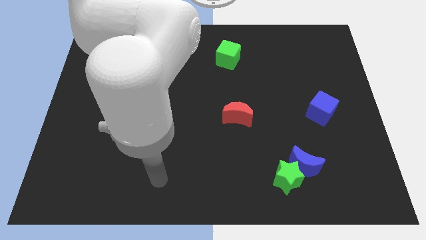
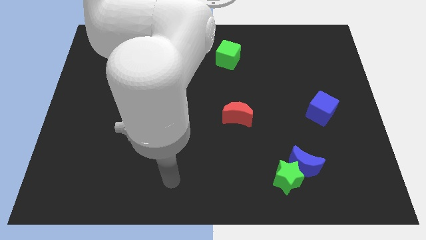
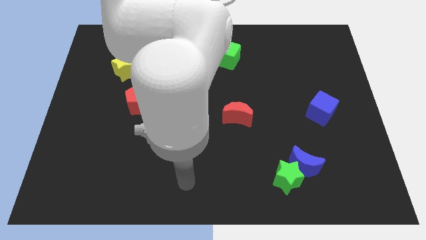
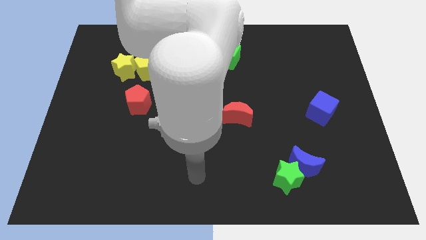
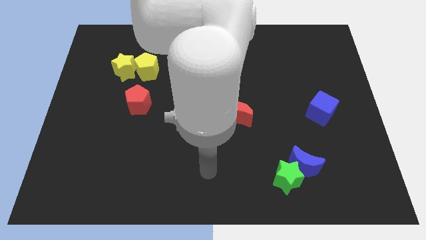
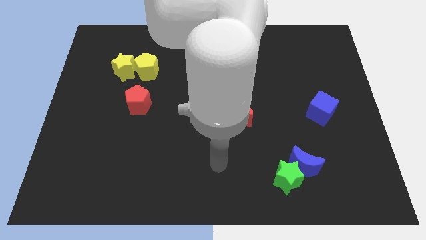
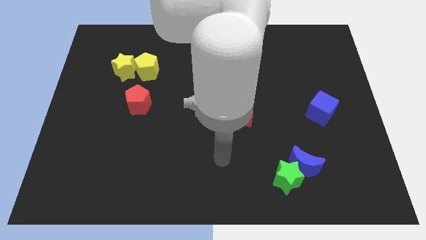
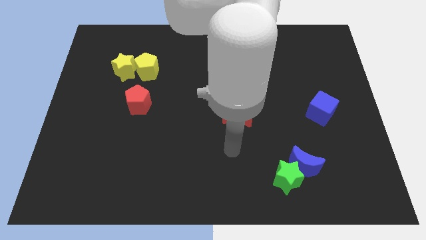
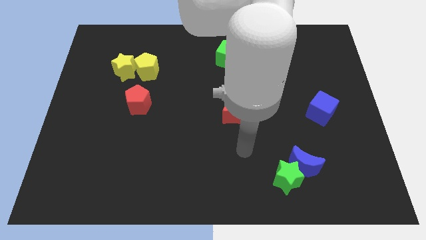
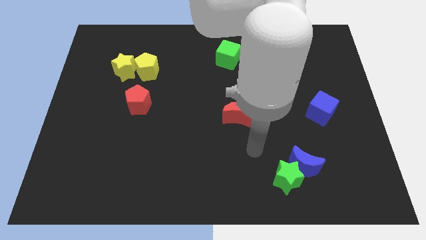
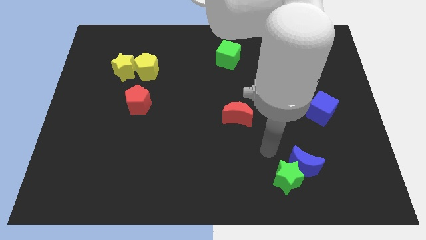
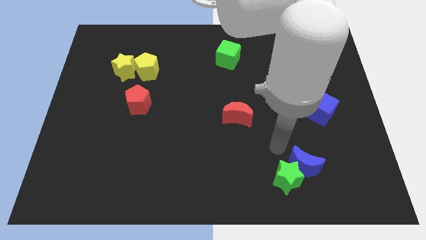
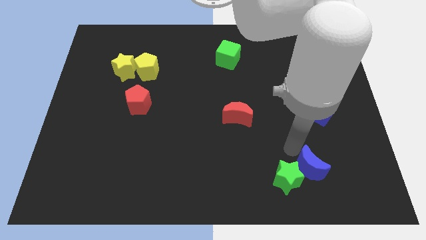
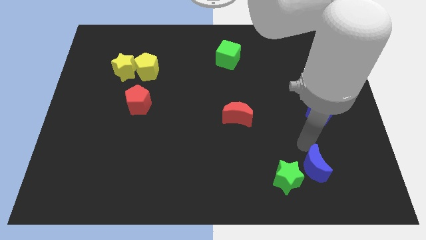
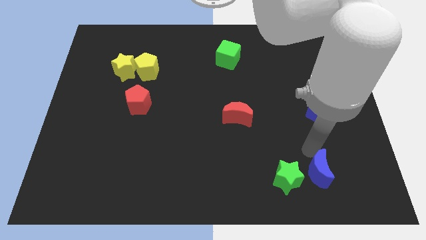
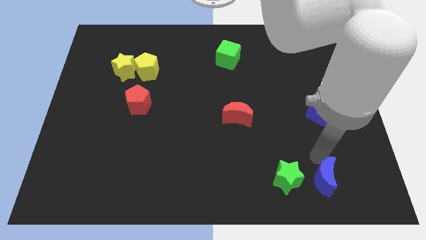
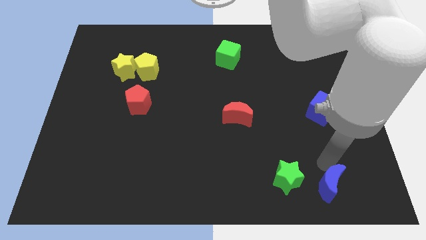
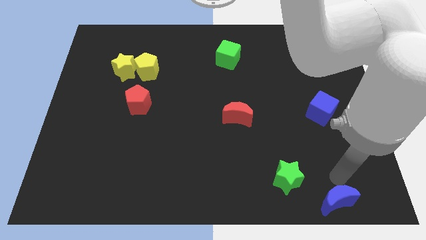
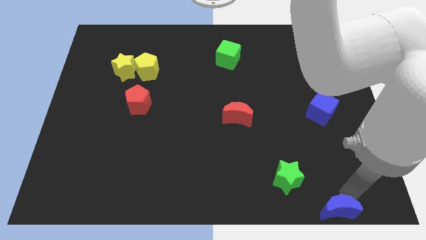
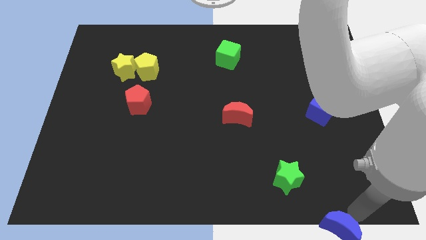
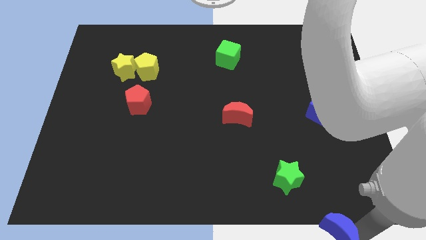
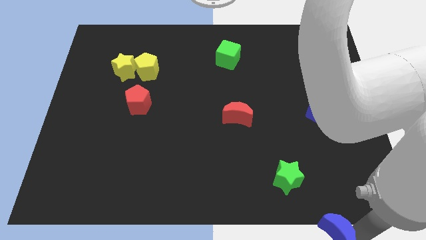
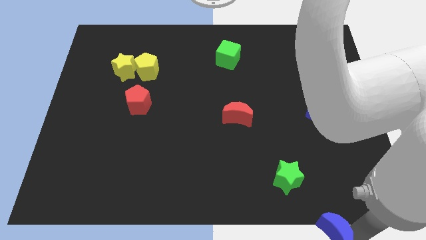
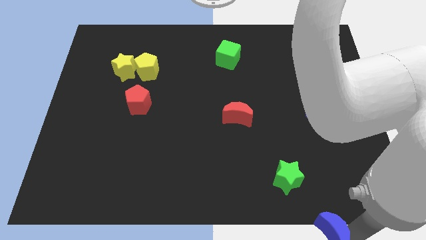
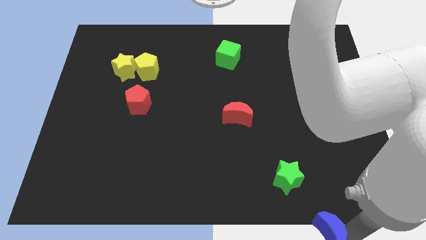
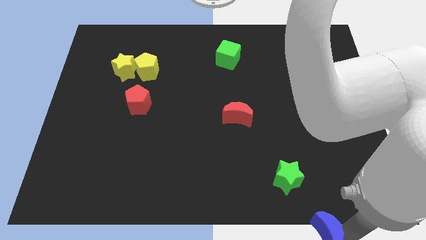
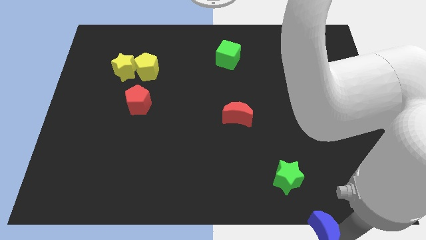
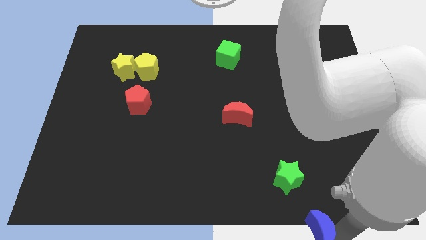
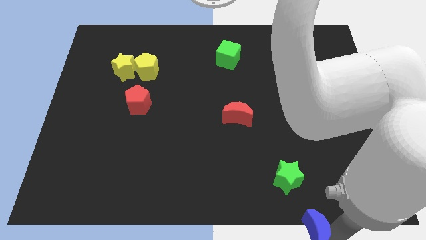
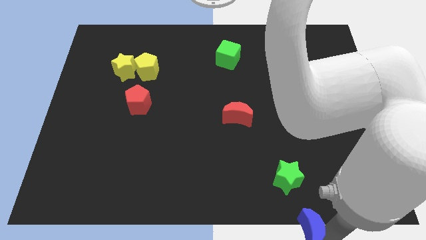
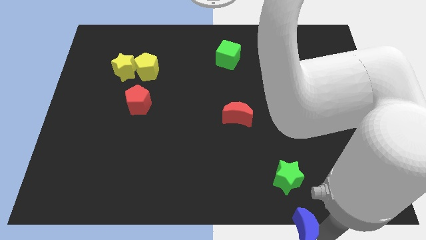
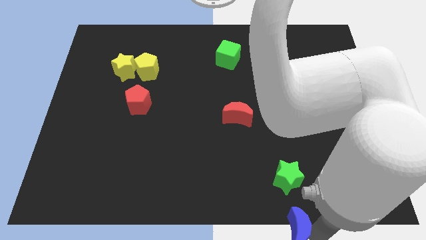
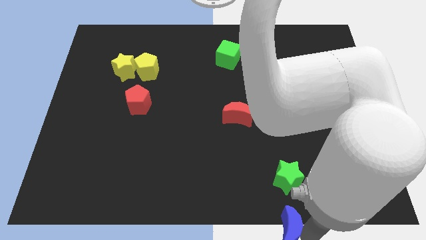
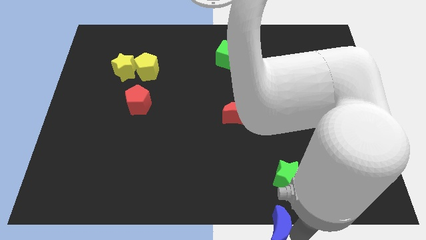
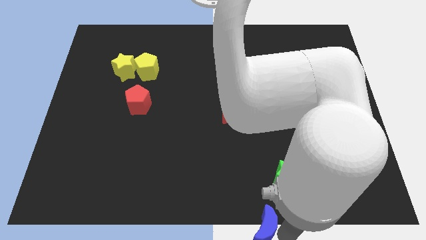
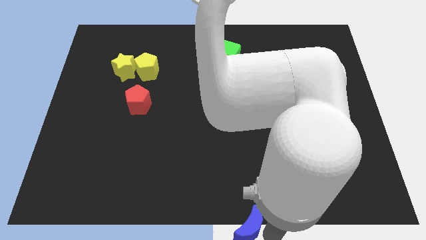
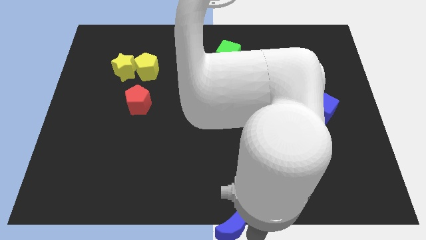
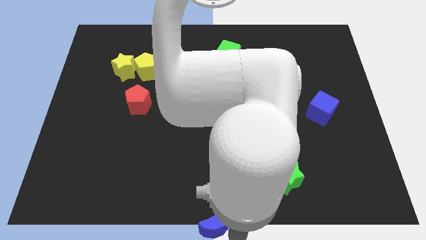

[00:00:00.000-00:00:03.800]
move the blue moon to the left a little bit

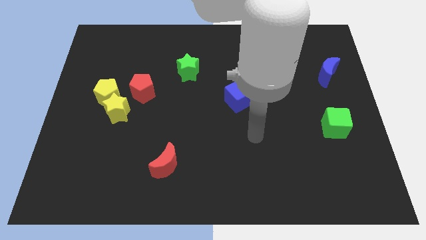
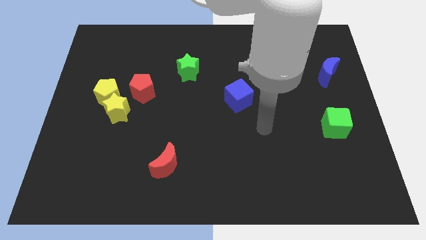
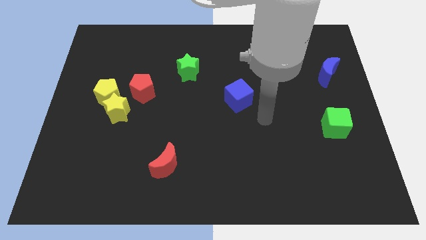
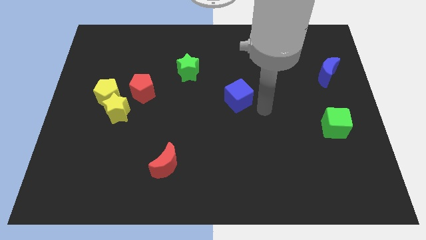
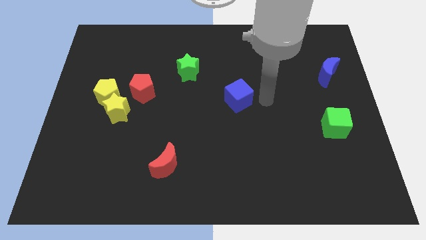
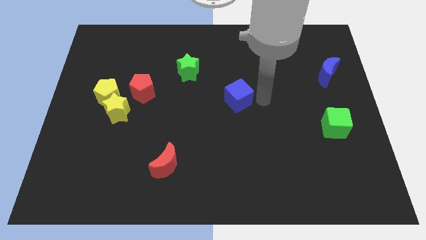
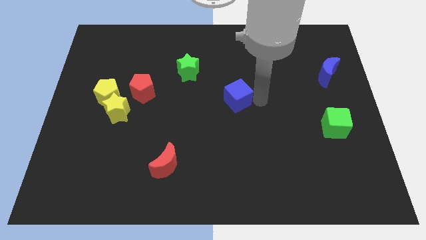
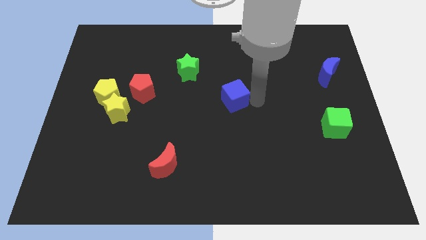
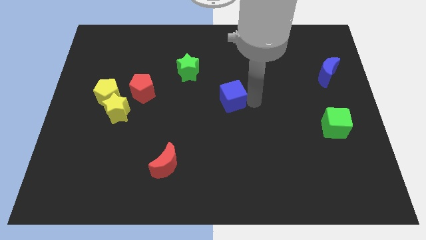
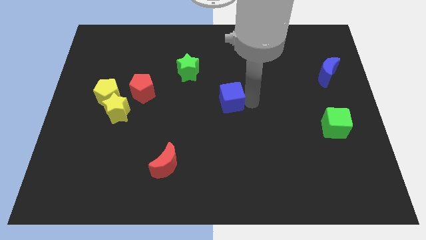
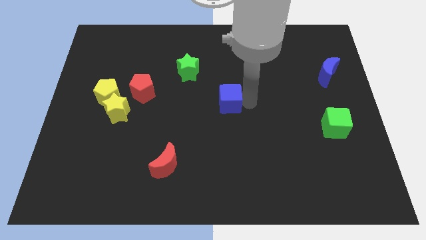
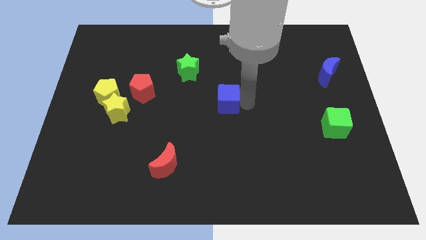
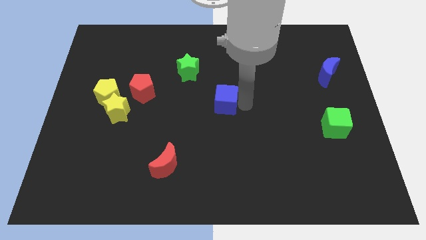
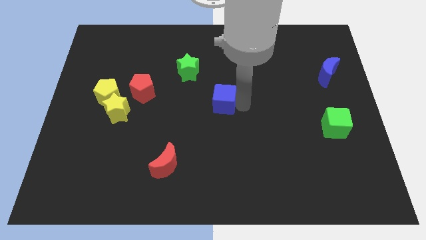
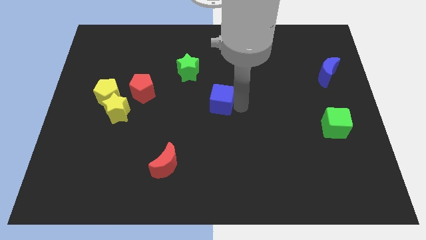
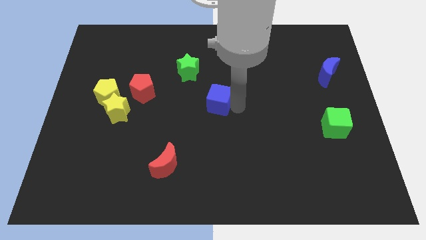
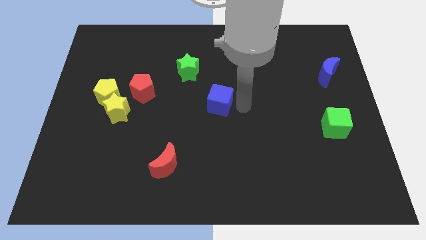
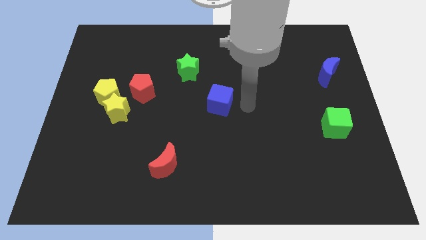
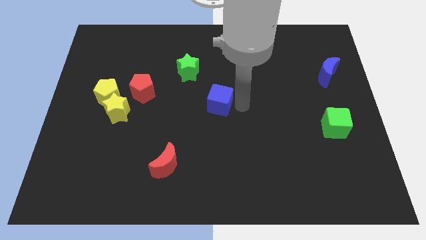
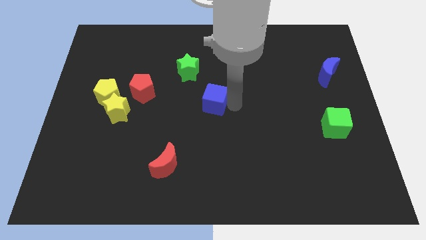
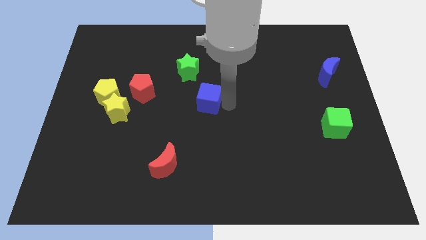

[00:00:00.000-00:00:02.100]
push the blue cube left somewhat

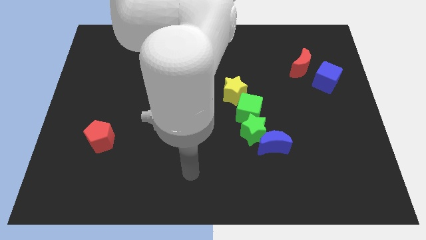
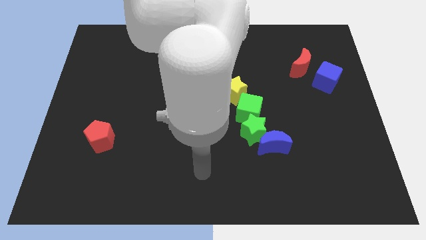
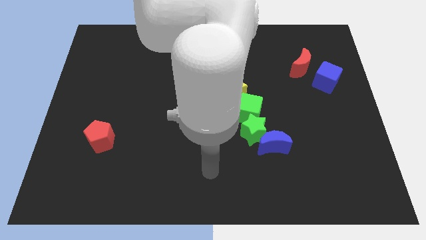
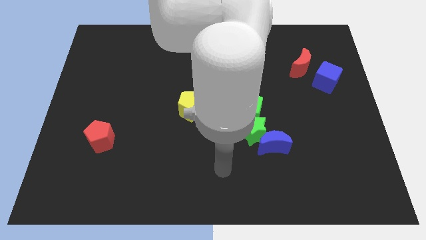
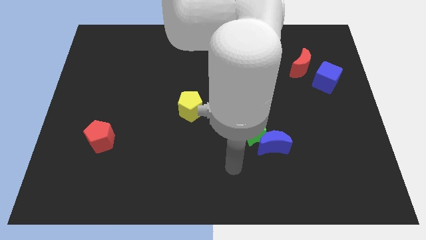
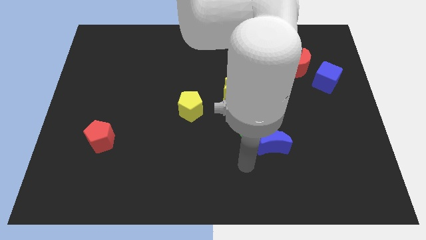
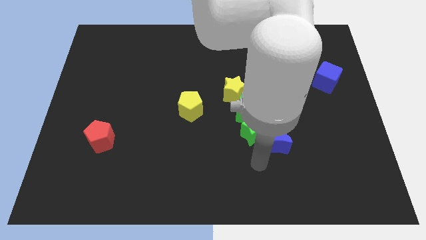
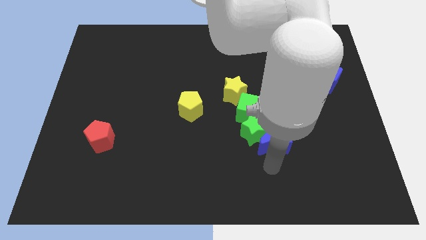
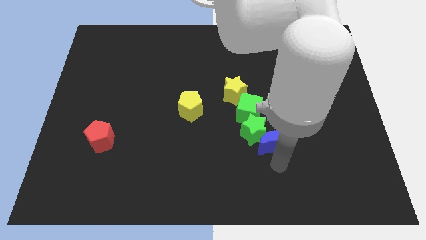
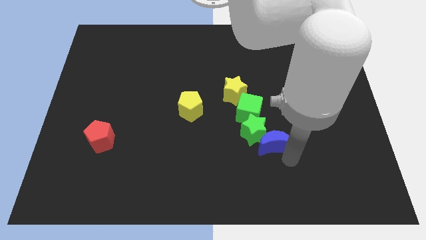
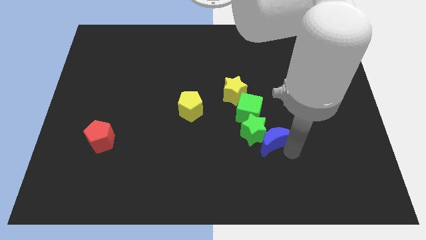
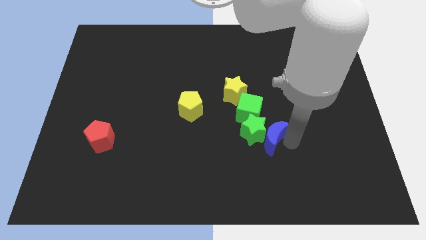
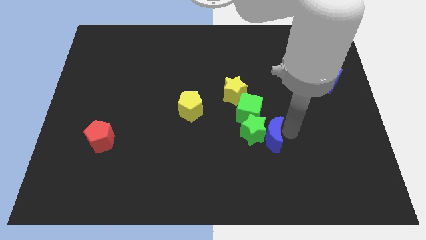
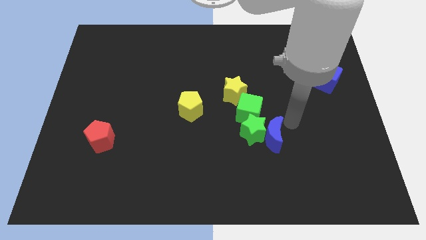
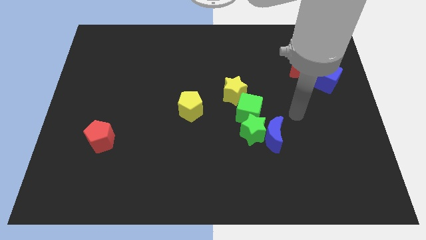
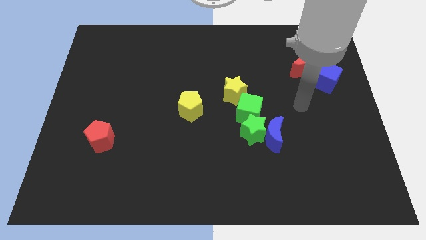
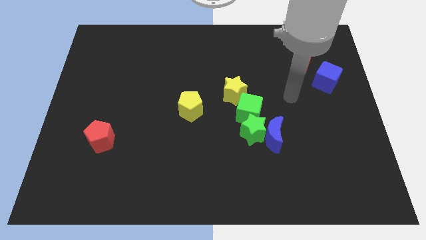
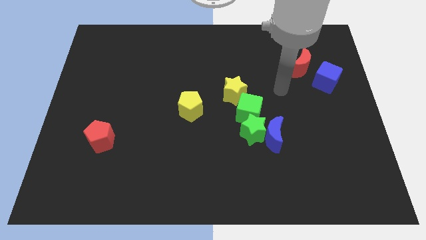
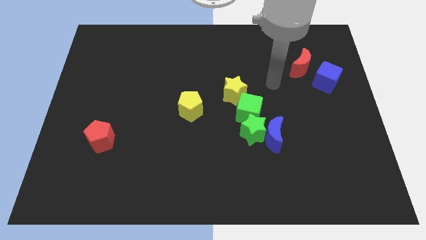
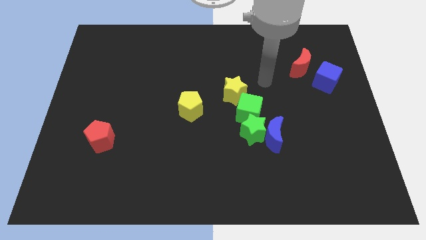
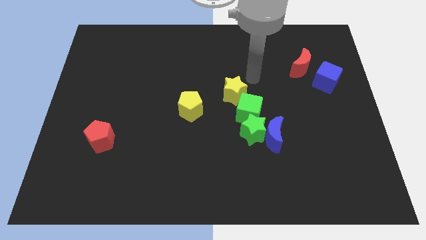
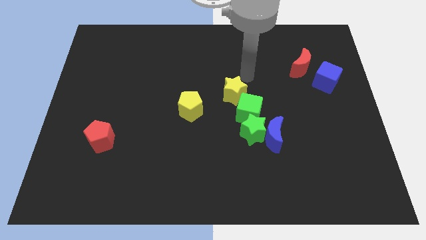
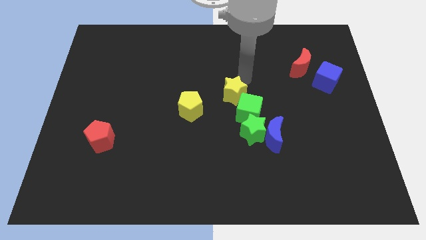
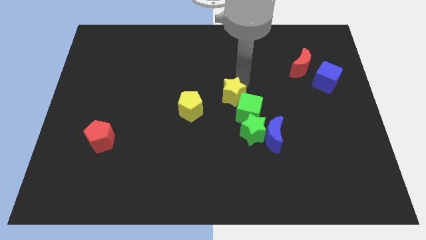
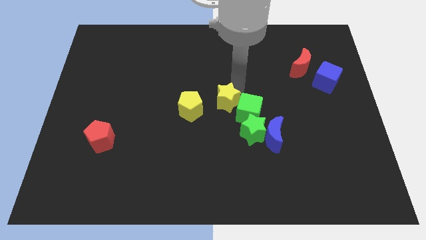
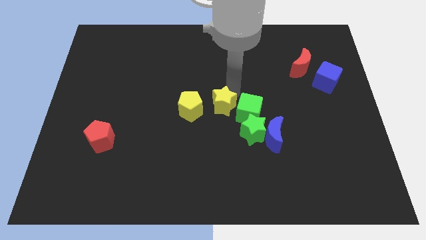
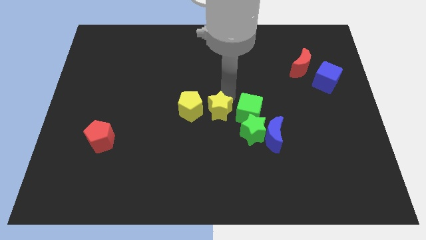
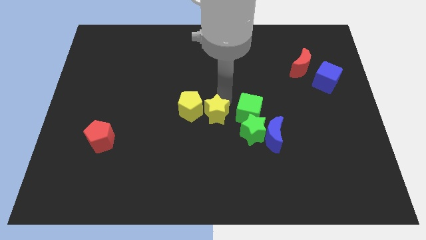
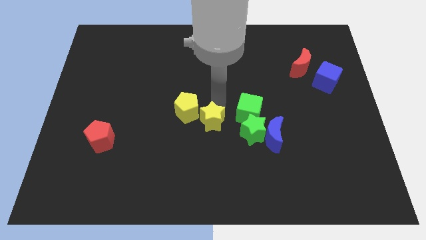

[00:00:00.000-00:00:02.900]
slide the yellow star down a bit
